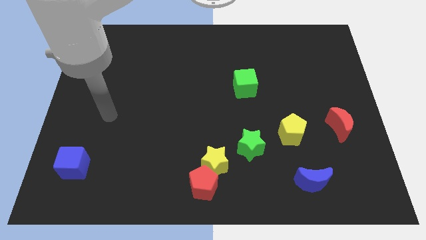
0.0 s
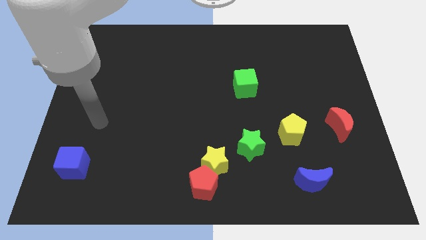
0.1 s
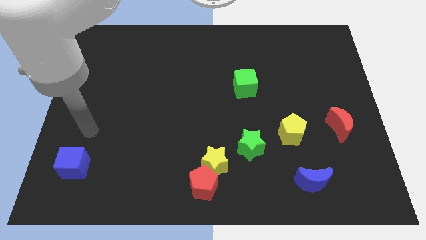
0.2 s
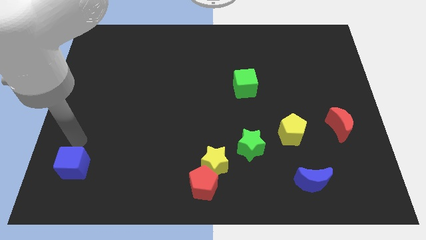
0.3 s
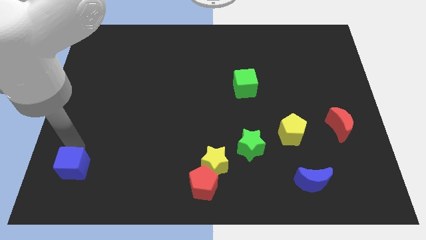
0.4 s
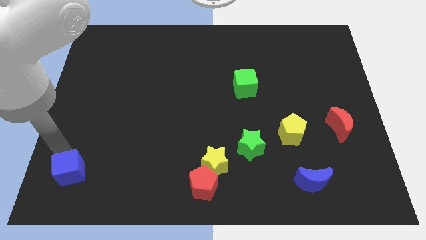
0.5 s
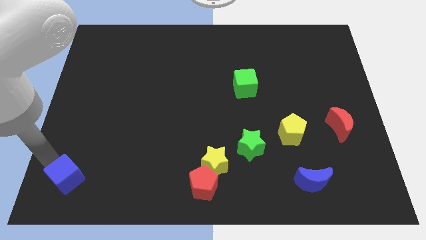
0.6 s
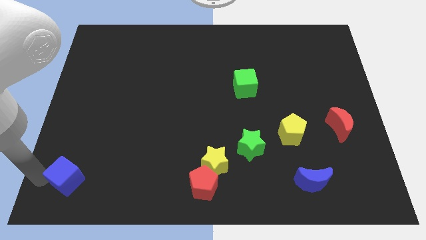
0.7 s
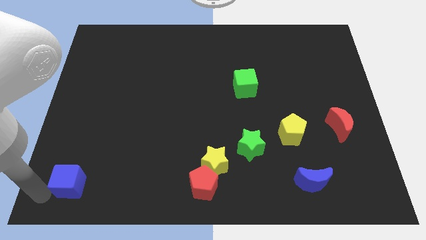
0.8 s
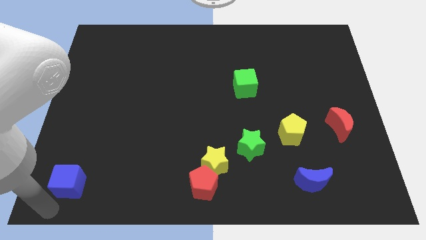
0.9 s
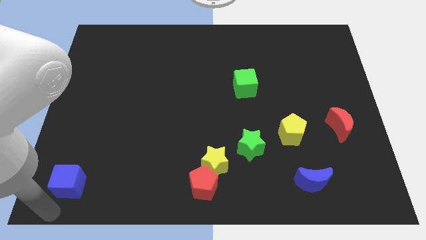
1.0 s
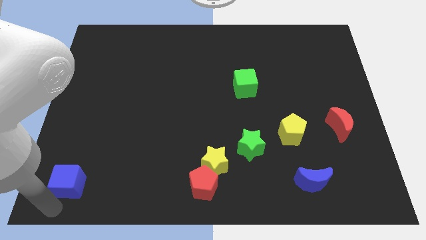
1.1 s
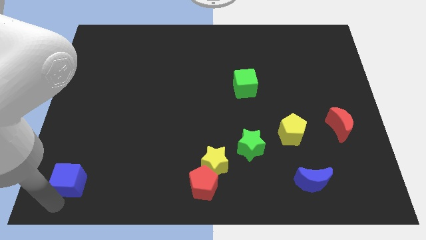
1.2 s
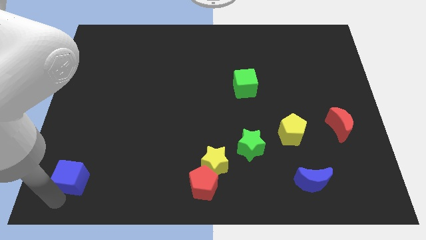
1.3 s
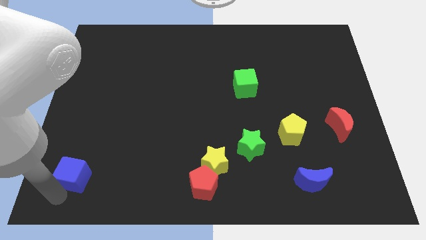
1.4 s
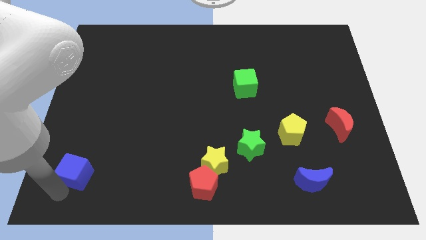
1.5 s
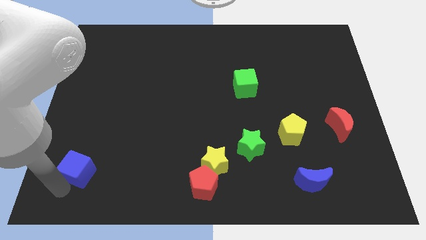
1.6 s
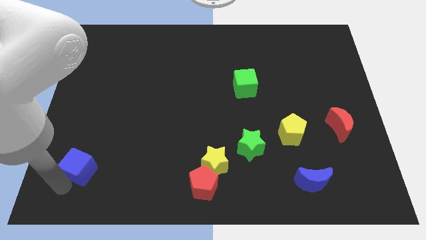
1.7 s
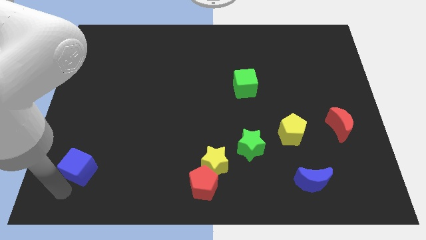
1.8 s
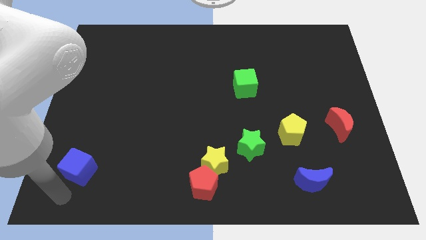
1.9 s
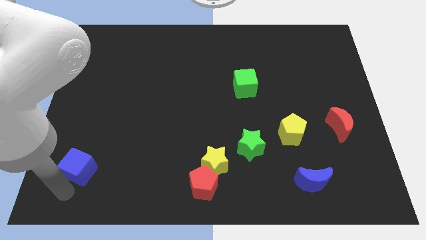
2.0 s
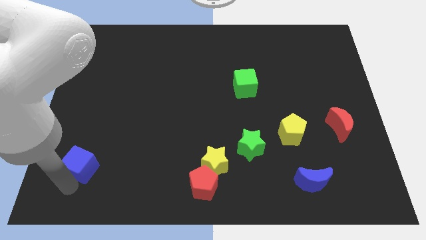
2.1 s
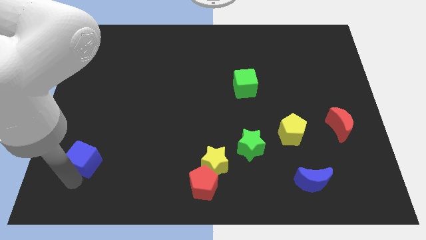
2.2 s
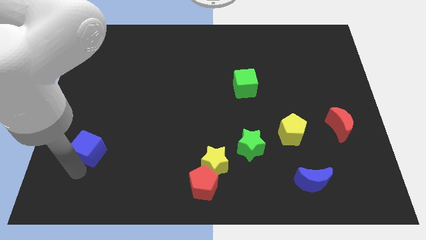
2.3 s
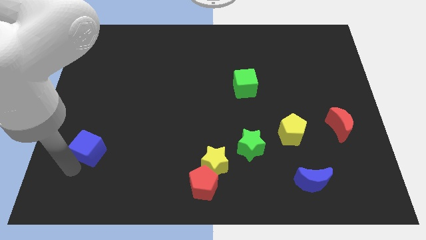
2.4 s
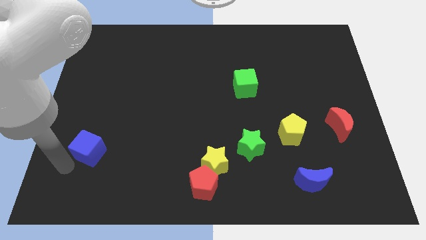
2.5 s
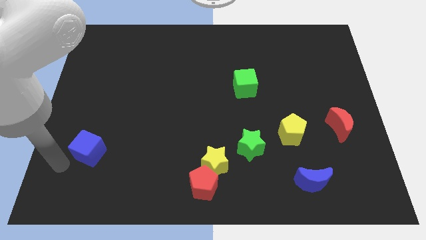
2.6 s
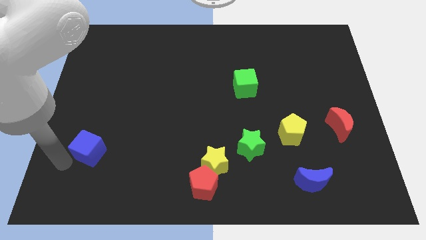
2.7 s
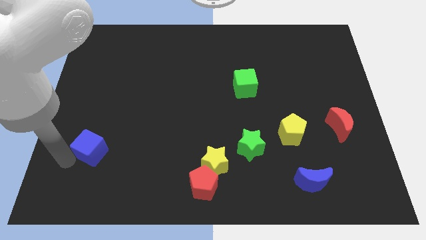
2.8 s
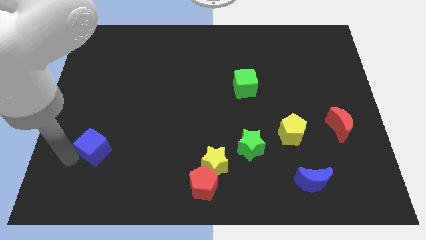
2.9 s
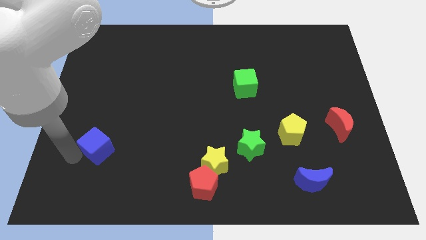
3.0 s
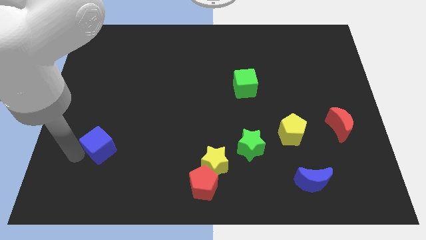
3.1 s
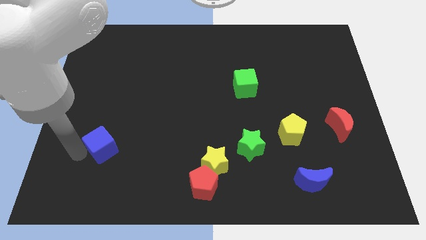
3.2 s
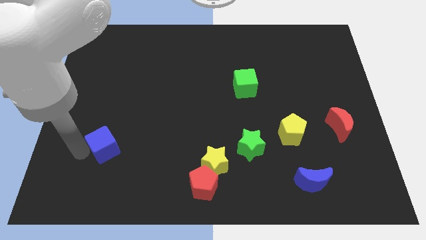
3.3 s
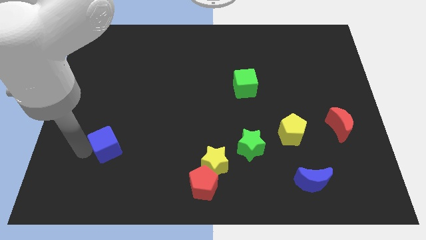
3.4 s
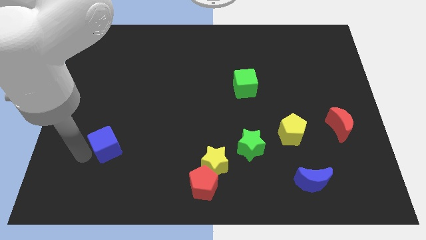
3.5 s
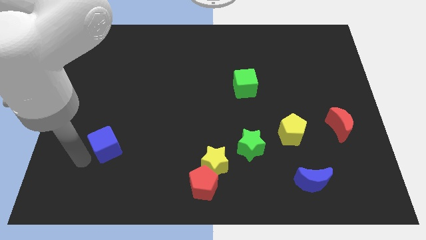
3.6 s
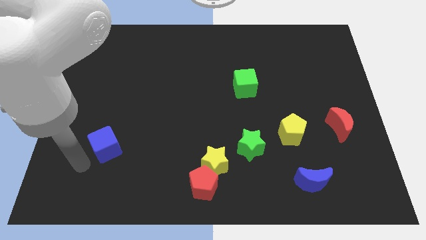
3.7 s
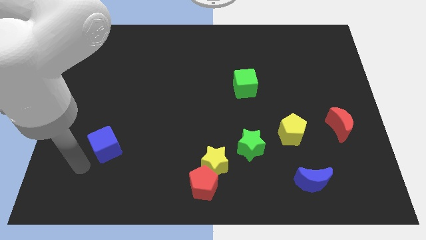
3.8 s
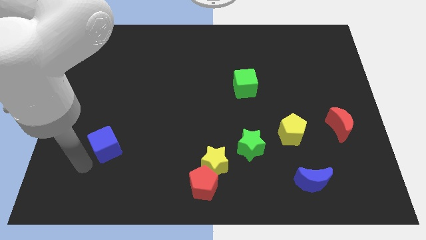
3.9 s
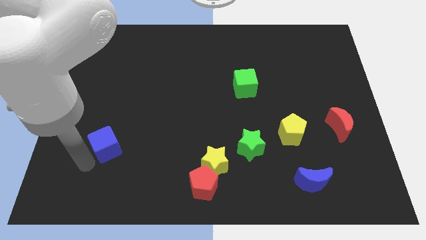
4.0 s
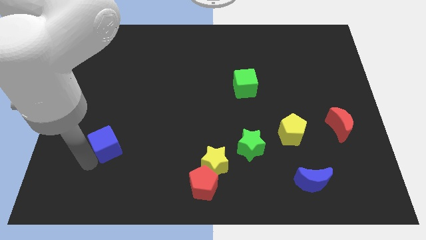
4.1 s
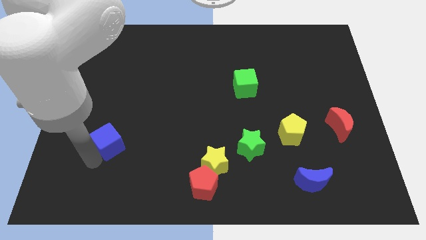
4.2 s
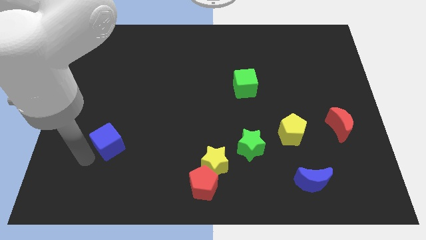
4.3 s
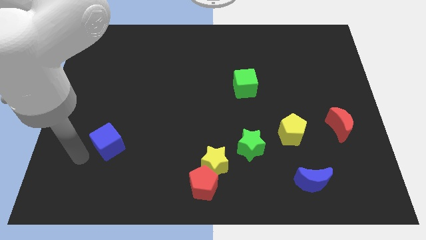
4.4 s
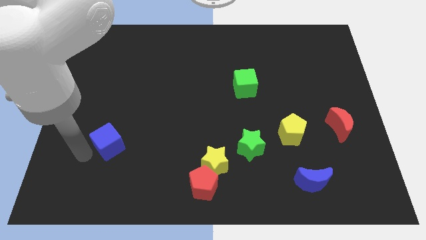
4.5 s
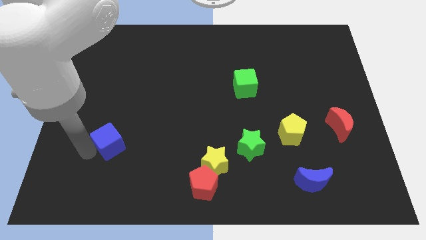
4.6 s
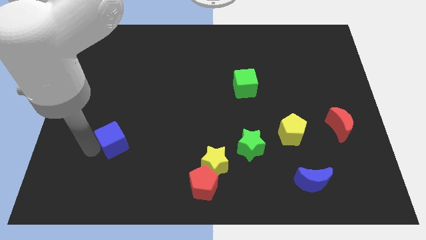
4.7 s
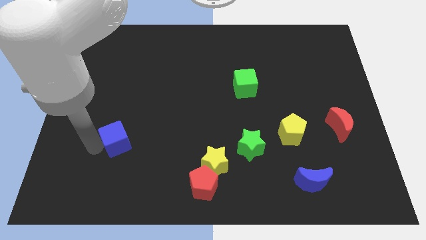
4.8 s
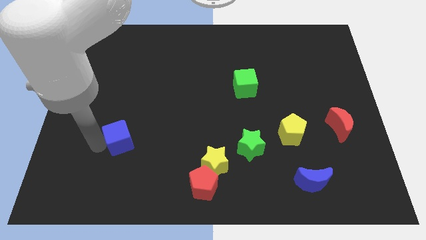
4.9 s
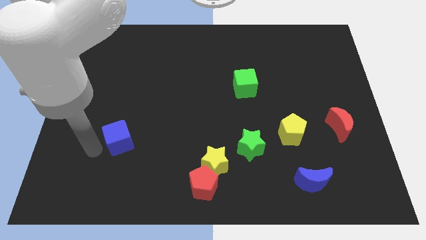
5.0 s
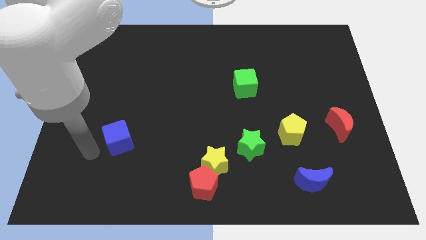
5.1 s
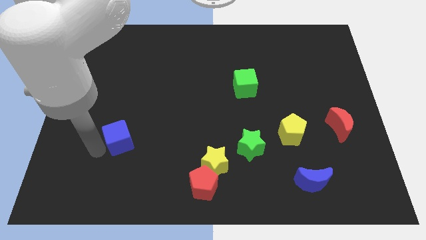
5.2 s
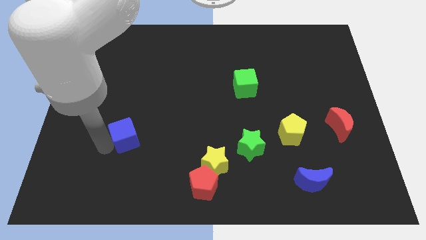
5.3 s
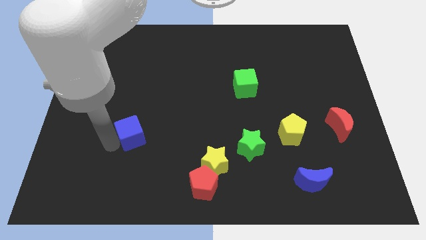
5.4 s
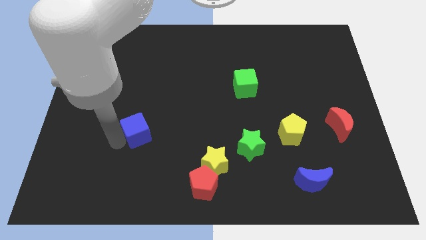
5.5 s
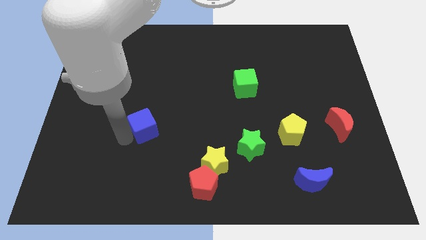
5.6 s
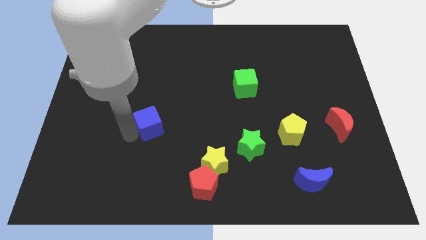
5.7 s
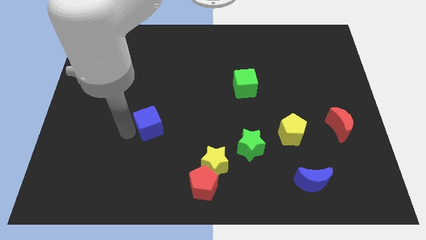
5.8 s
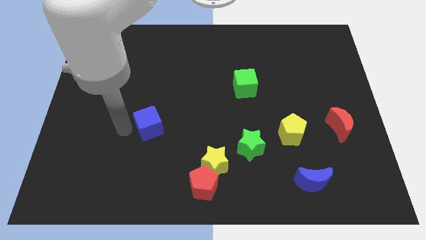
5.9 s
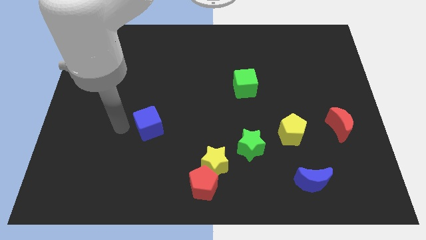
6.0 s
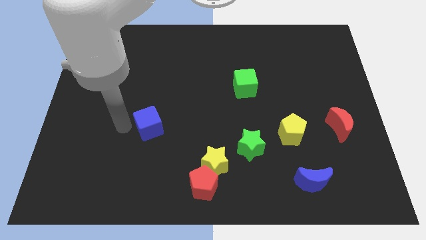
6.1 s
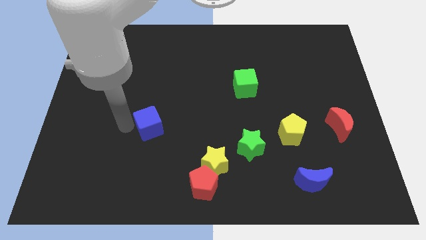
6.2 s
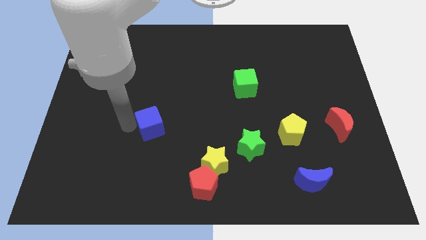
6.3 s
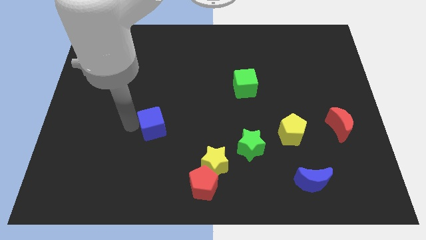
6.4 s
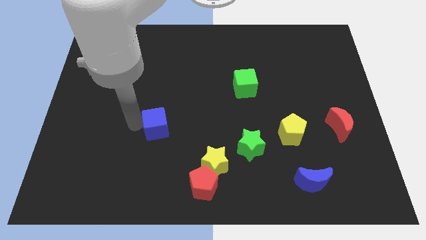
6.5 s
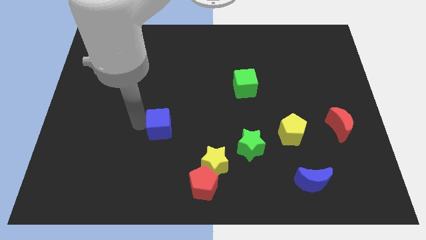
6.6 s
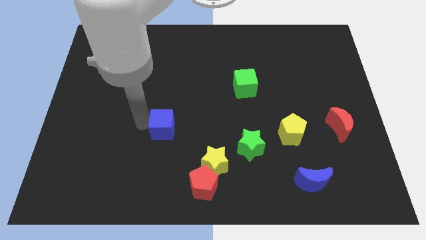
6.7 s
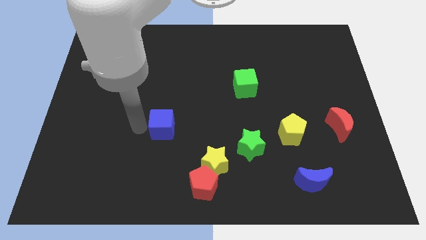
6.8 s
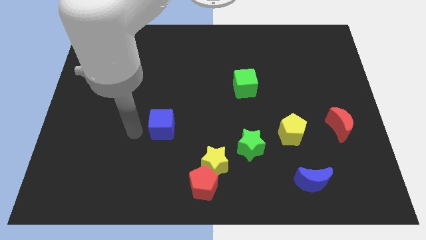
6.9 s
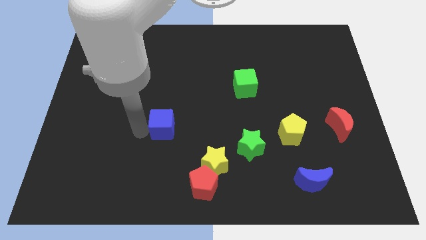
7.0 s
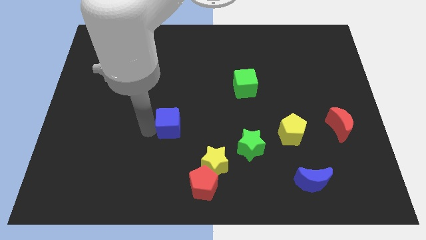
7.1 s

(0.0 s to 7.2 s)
slide the blue cube to the center of the board
